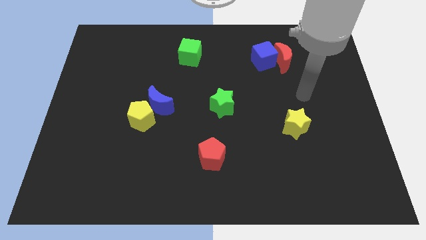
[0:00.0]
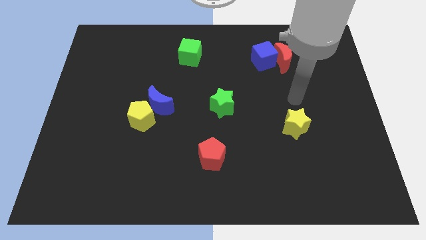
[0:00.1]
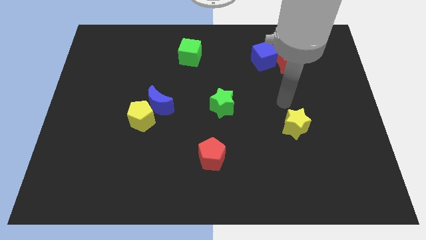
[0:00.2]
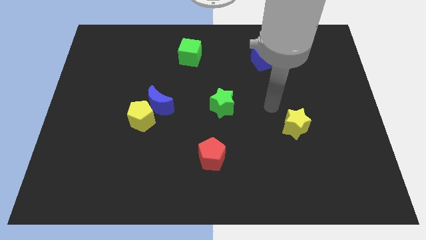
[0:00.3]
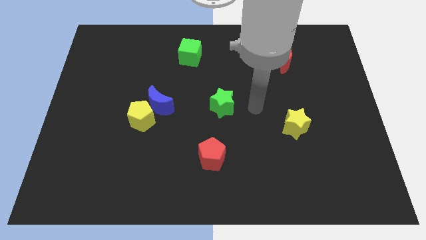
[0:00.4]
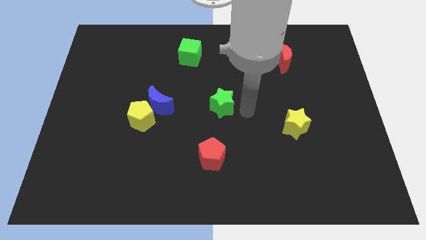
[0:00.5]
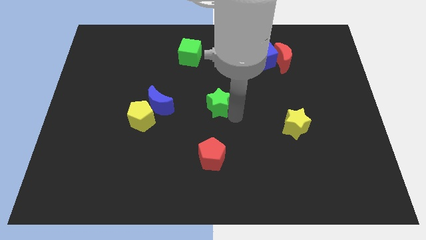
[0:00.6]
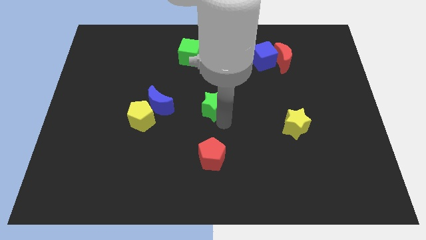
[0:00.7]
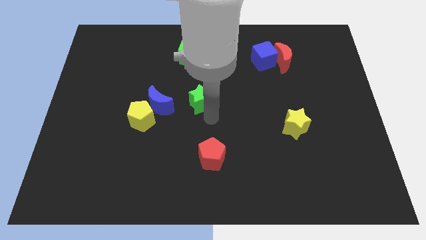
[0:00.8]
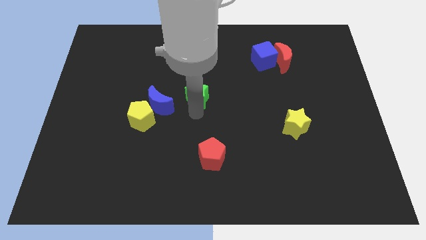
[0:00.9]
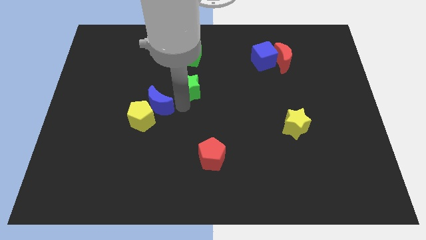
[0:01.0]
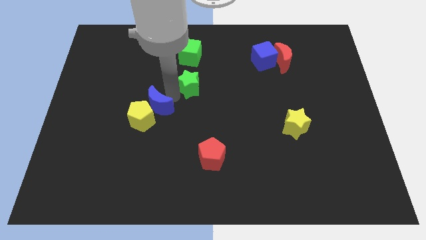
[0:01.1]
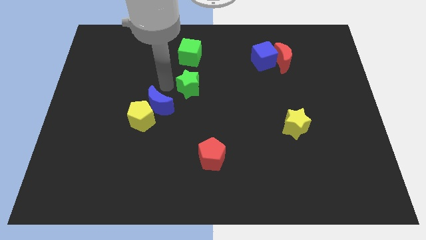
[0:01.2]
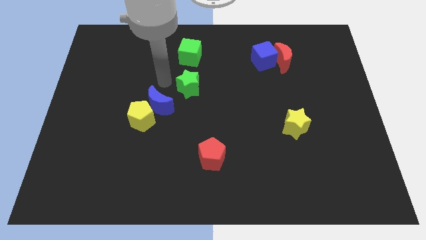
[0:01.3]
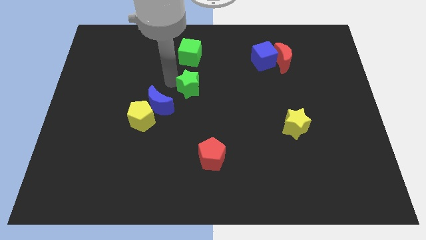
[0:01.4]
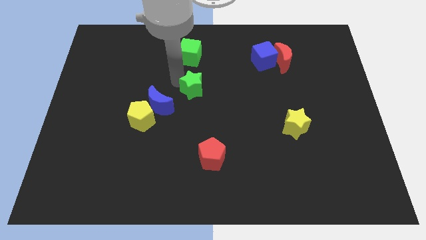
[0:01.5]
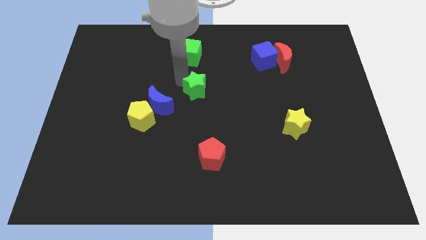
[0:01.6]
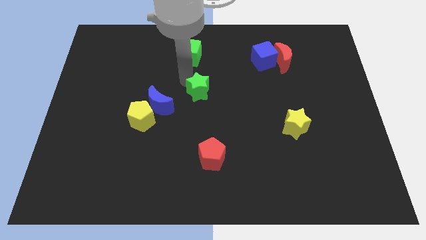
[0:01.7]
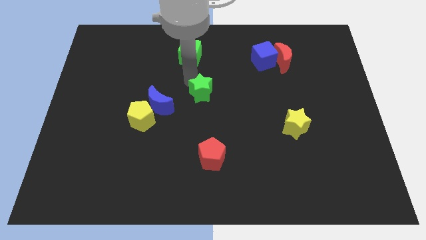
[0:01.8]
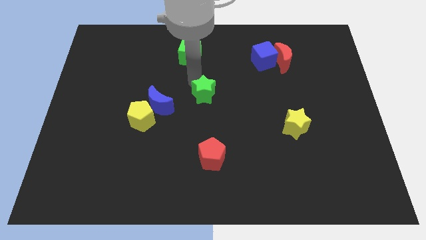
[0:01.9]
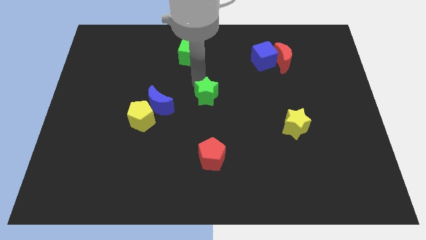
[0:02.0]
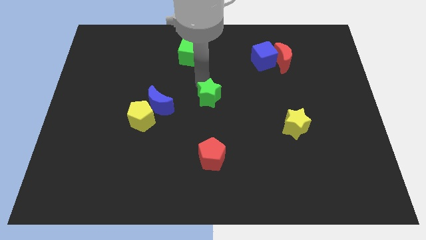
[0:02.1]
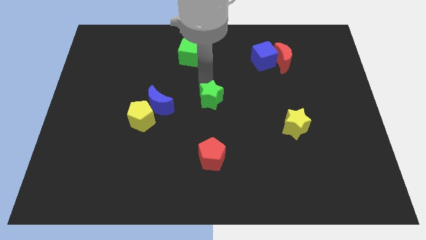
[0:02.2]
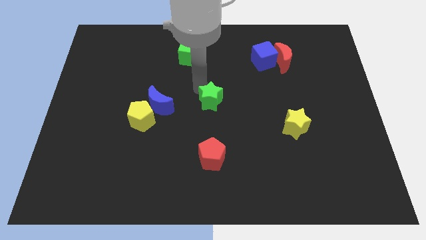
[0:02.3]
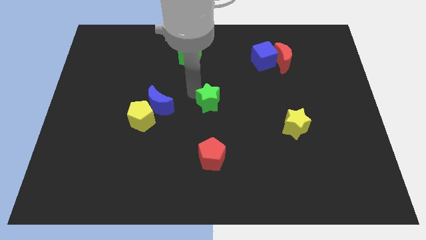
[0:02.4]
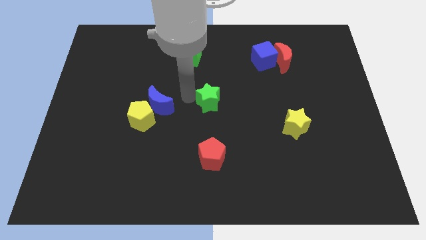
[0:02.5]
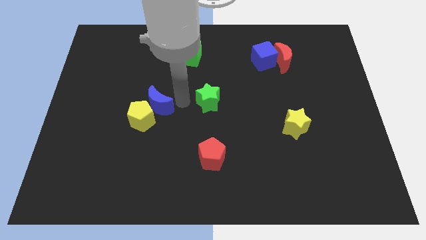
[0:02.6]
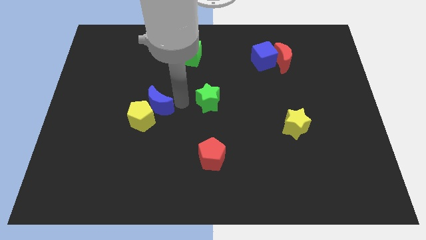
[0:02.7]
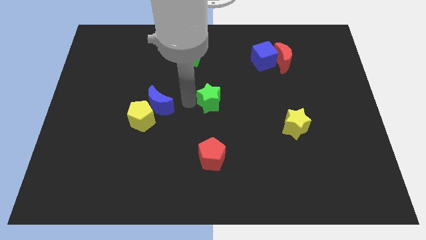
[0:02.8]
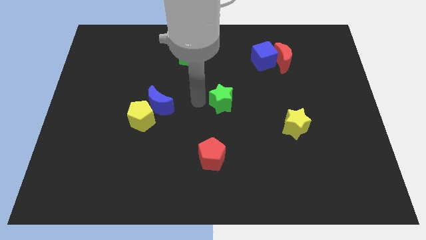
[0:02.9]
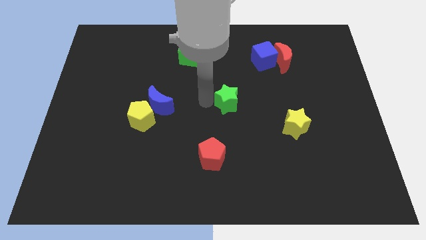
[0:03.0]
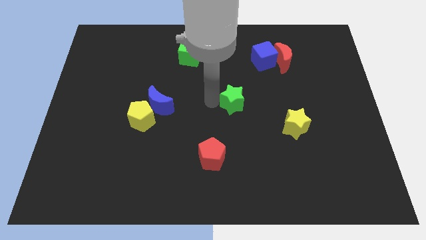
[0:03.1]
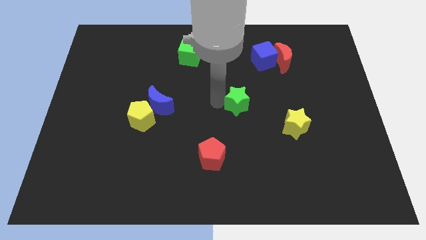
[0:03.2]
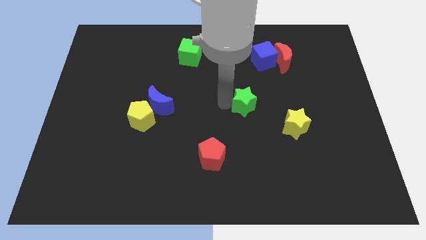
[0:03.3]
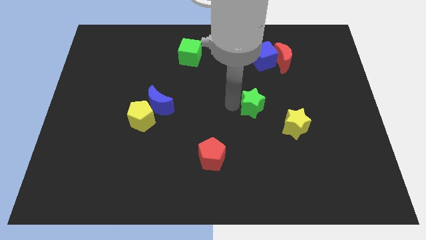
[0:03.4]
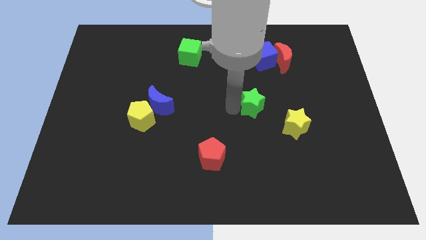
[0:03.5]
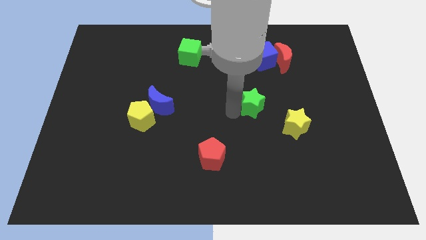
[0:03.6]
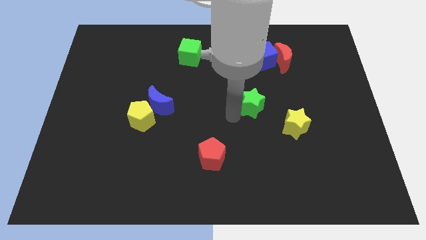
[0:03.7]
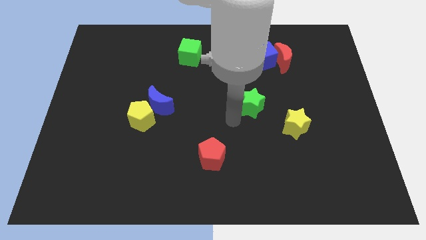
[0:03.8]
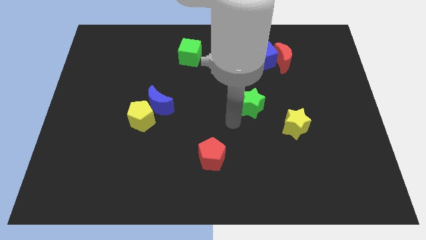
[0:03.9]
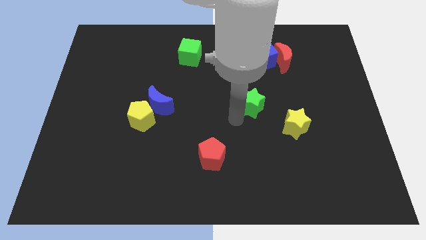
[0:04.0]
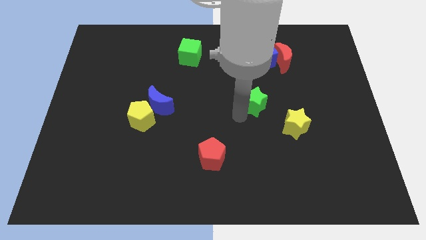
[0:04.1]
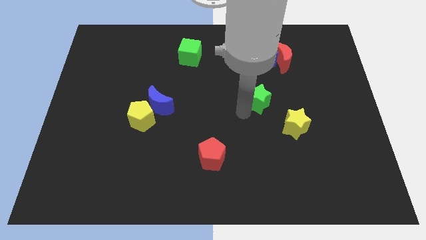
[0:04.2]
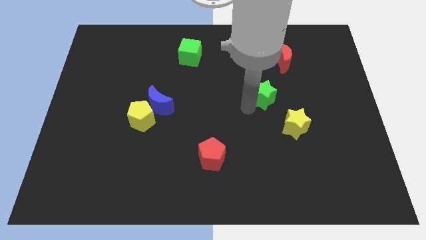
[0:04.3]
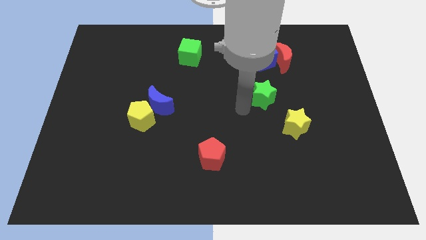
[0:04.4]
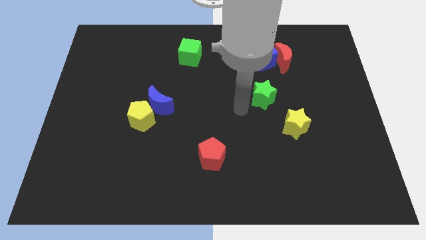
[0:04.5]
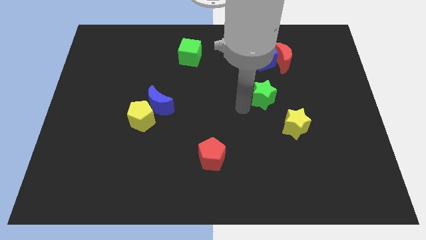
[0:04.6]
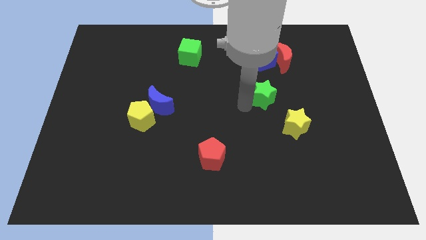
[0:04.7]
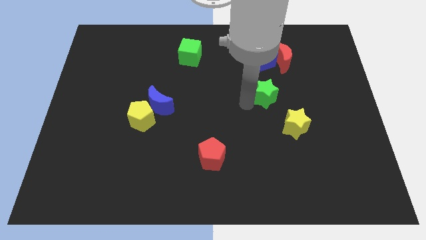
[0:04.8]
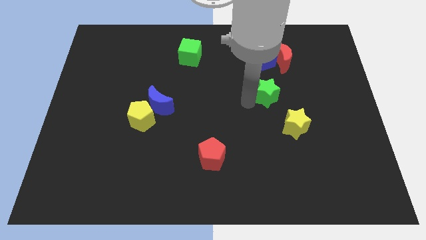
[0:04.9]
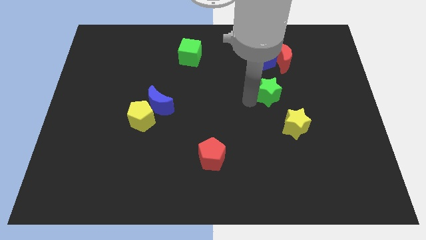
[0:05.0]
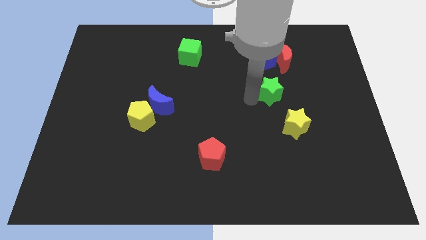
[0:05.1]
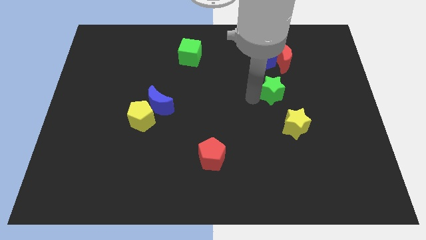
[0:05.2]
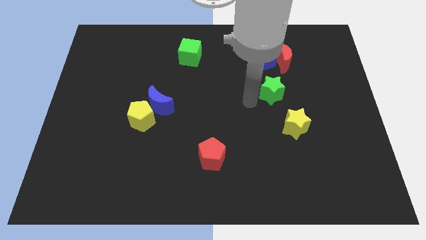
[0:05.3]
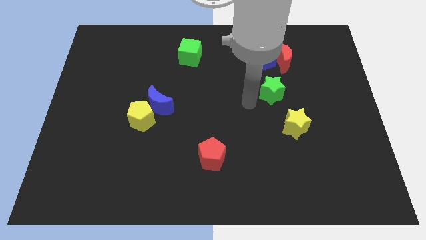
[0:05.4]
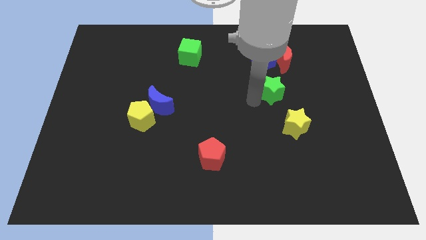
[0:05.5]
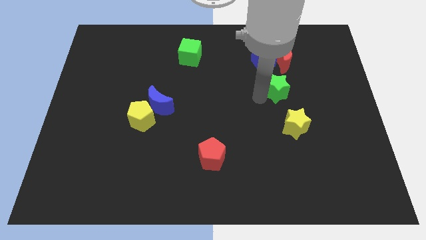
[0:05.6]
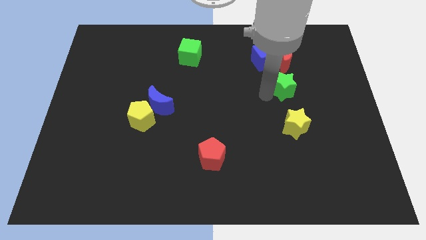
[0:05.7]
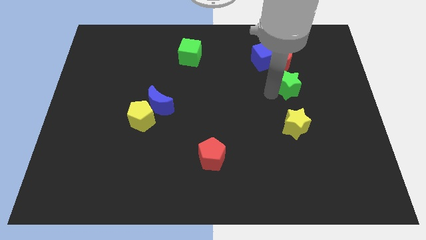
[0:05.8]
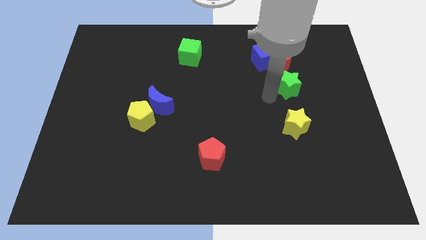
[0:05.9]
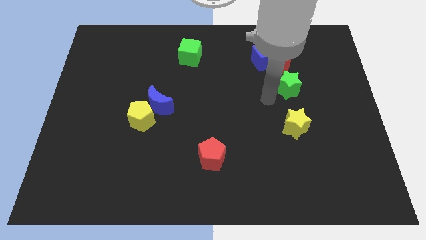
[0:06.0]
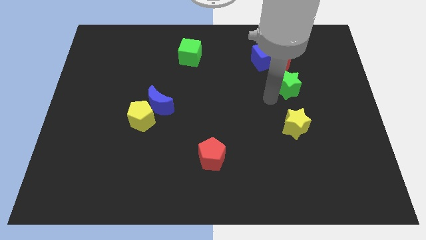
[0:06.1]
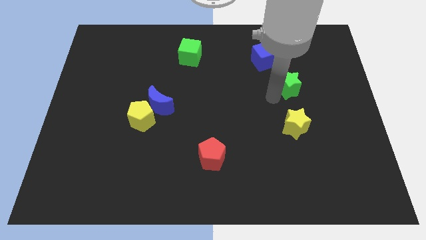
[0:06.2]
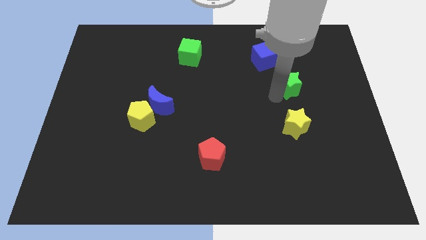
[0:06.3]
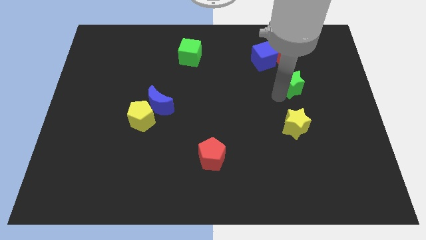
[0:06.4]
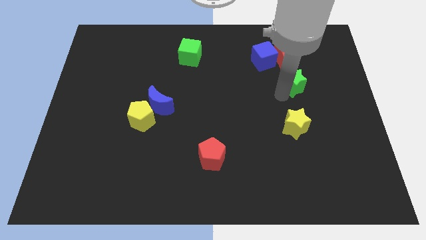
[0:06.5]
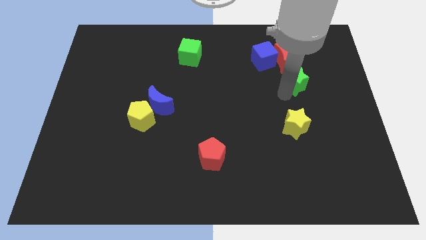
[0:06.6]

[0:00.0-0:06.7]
push the green star diagonally down and to the right of the red moon

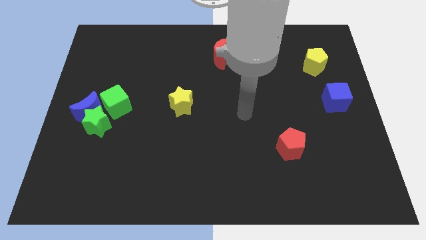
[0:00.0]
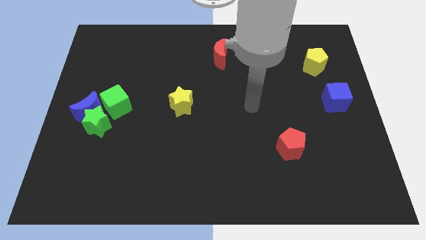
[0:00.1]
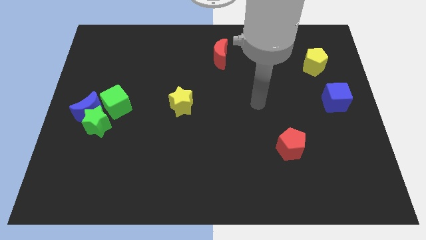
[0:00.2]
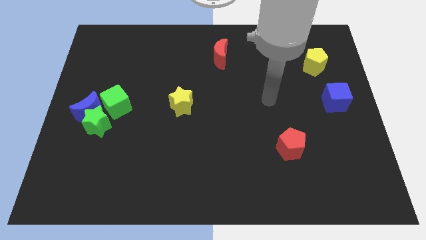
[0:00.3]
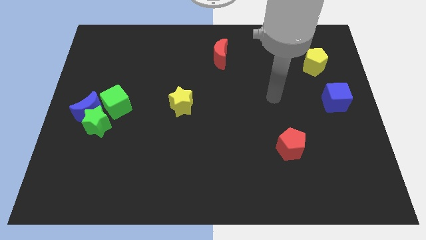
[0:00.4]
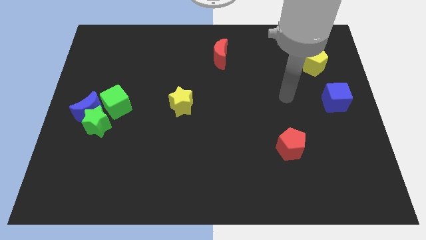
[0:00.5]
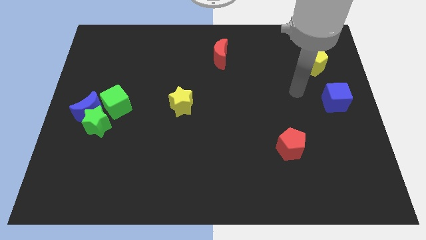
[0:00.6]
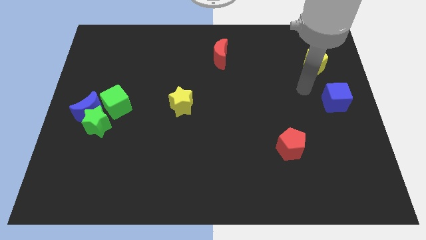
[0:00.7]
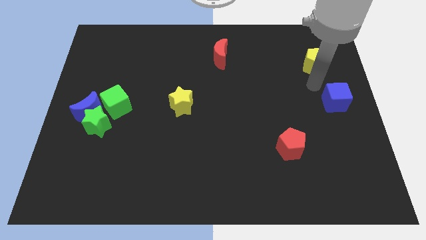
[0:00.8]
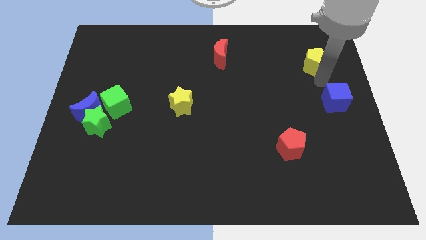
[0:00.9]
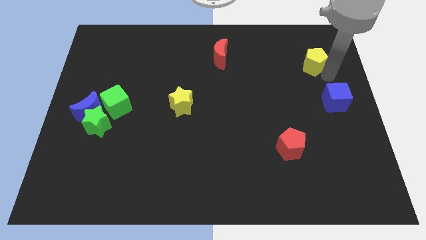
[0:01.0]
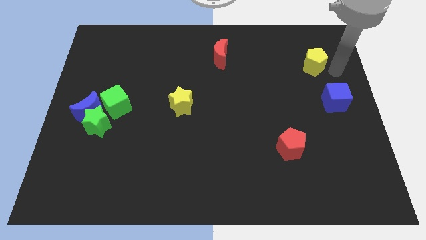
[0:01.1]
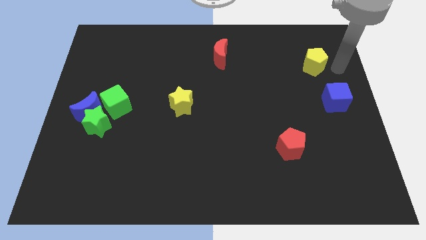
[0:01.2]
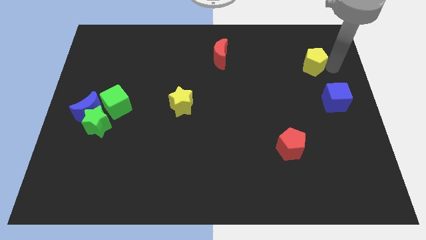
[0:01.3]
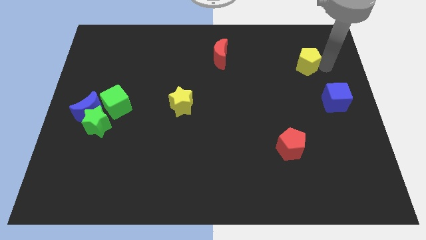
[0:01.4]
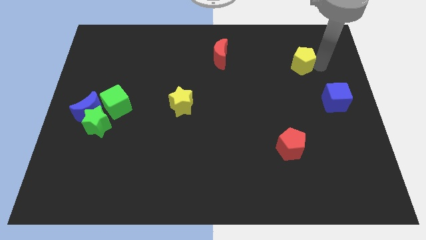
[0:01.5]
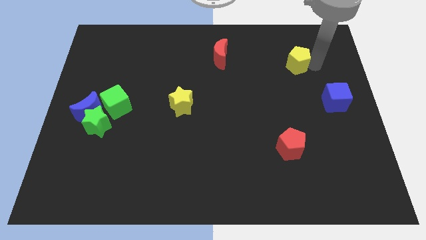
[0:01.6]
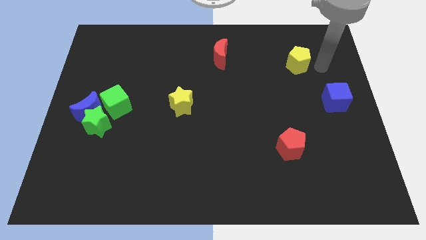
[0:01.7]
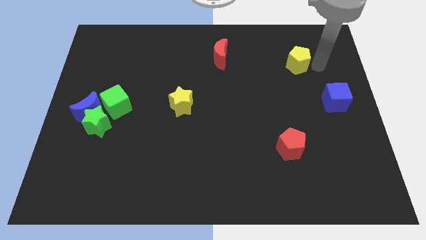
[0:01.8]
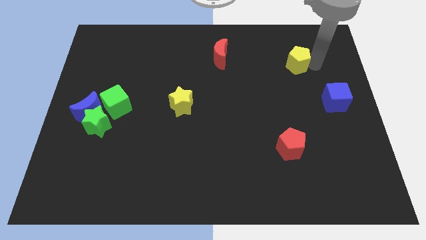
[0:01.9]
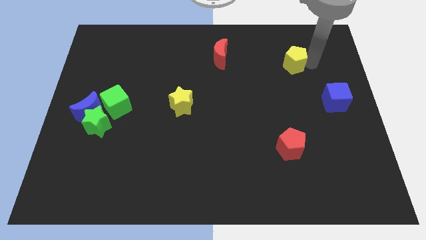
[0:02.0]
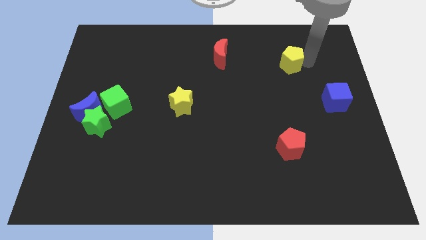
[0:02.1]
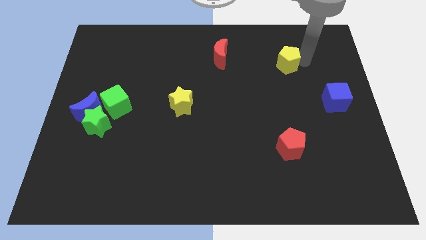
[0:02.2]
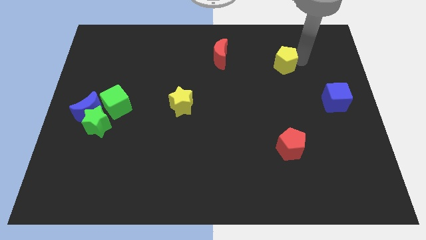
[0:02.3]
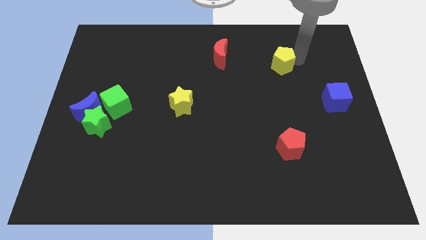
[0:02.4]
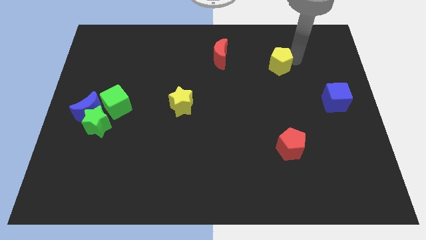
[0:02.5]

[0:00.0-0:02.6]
push the yellow pentagon just right of the red moon
